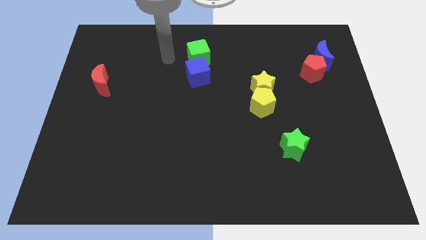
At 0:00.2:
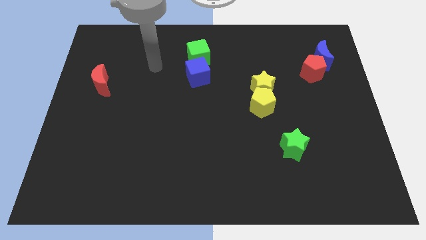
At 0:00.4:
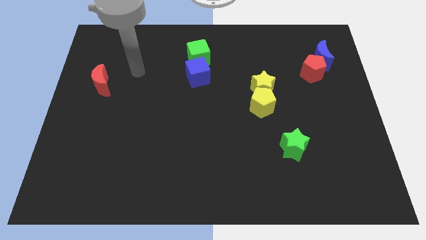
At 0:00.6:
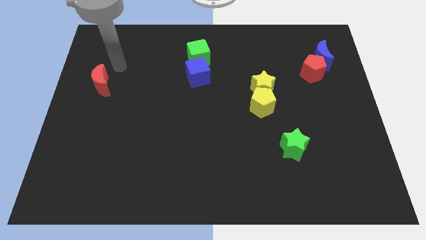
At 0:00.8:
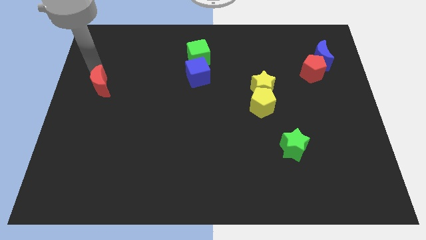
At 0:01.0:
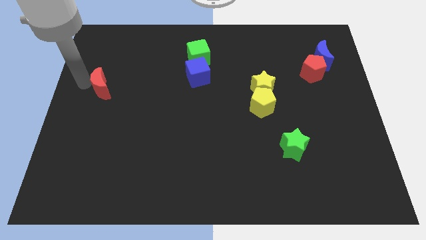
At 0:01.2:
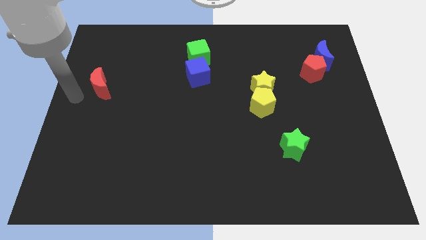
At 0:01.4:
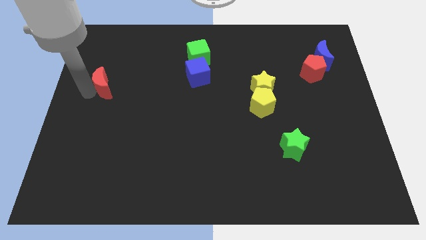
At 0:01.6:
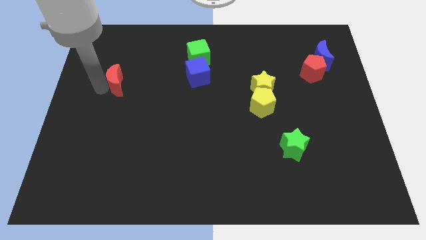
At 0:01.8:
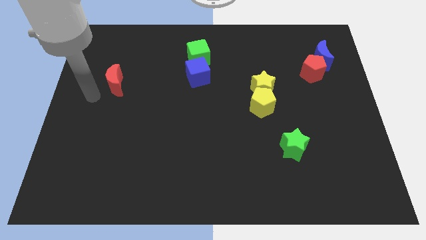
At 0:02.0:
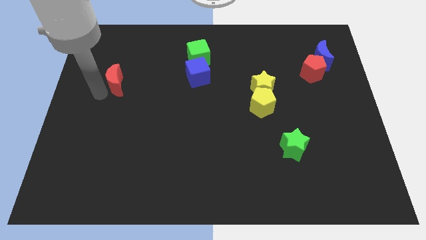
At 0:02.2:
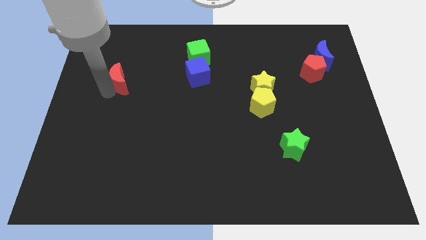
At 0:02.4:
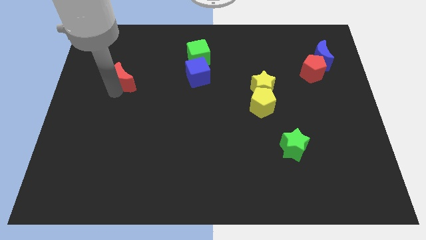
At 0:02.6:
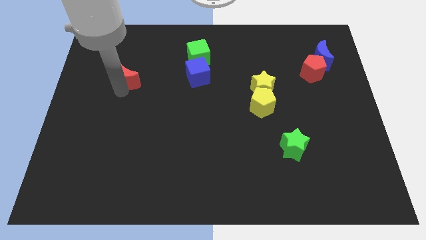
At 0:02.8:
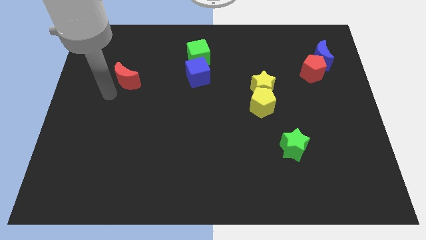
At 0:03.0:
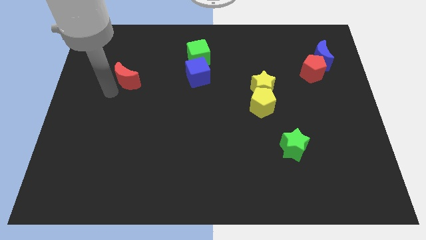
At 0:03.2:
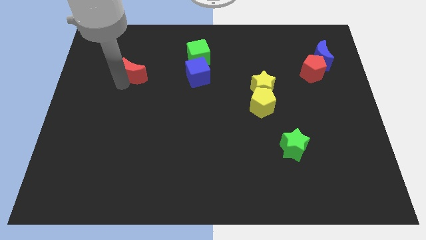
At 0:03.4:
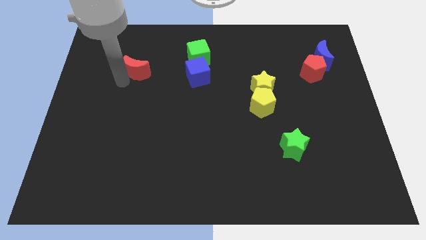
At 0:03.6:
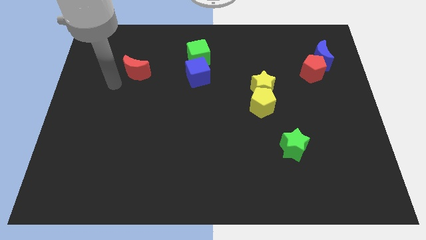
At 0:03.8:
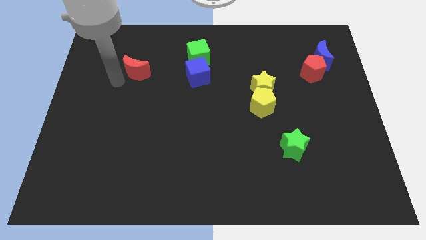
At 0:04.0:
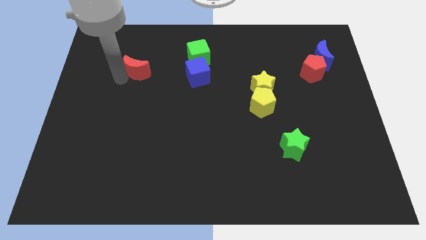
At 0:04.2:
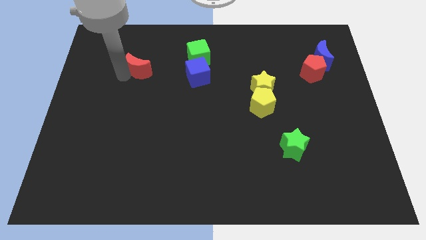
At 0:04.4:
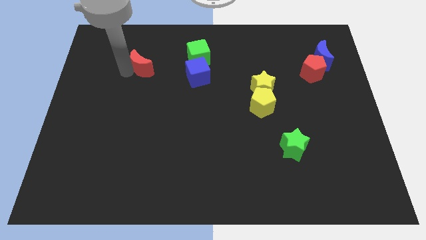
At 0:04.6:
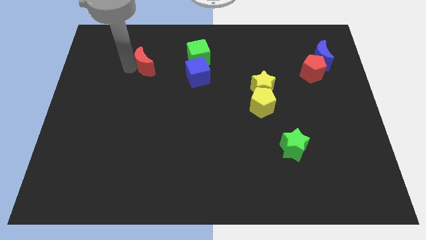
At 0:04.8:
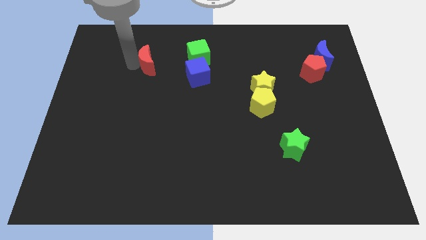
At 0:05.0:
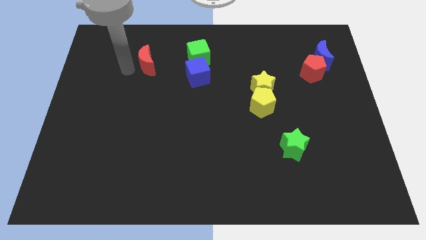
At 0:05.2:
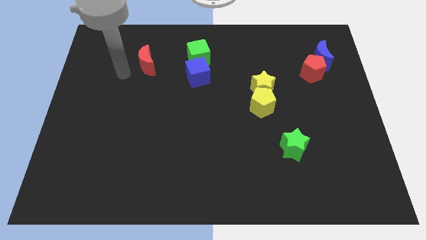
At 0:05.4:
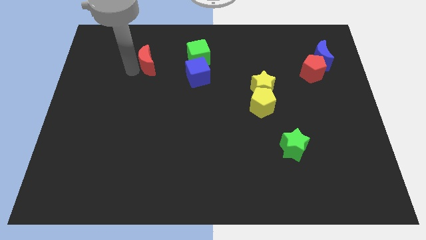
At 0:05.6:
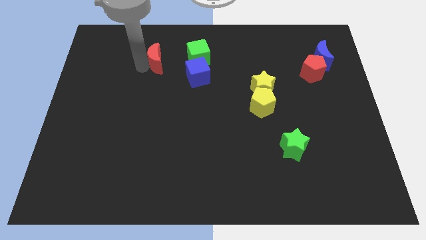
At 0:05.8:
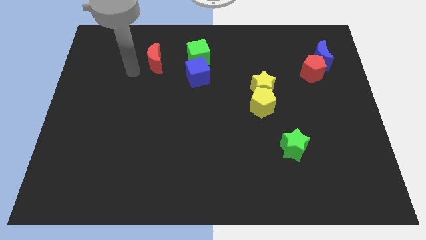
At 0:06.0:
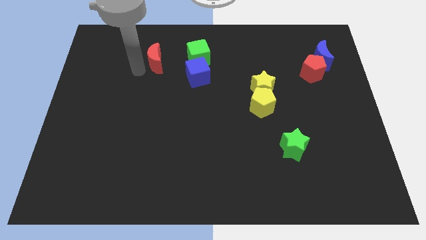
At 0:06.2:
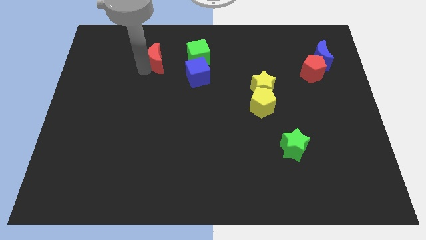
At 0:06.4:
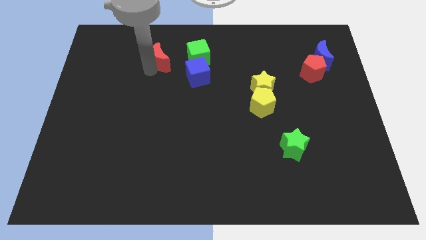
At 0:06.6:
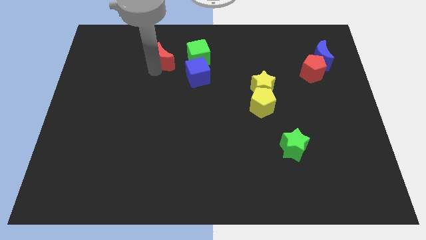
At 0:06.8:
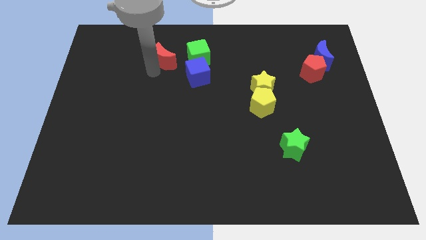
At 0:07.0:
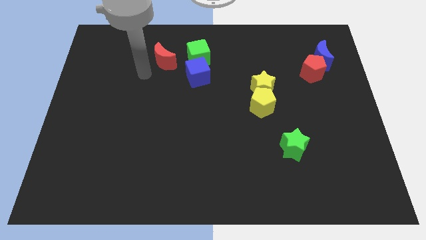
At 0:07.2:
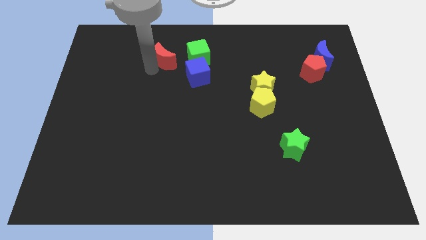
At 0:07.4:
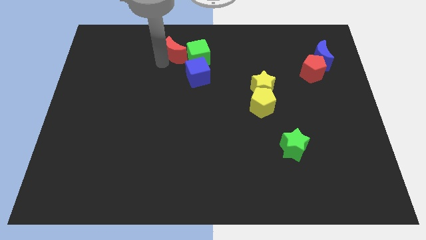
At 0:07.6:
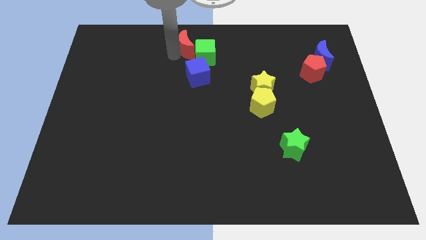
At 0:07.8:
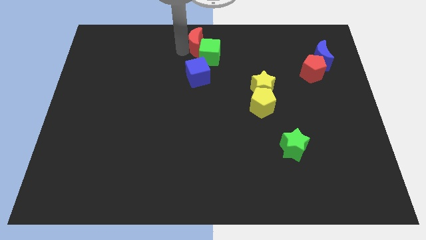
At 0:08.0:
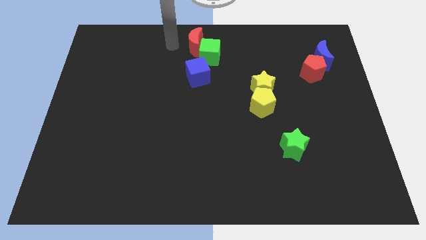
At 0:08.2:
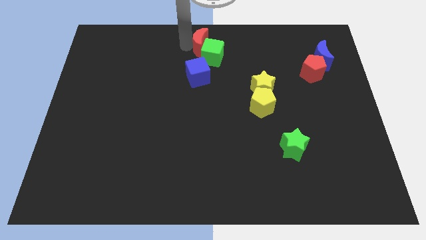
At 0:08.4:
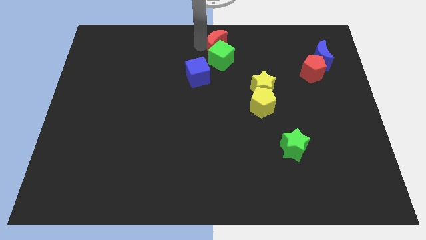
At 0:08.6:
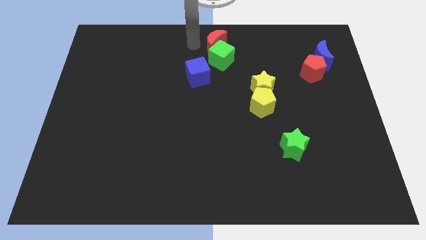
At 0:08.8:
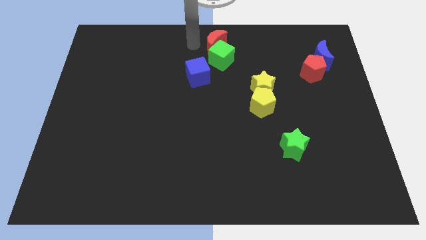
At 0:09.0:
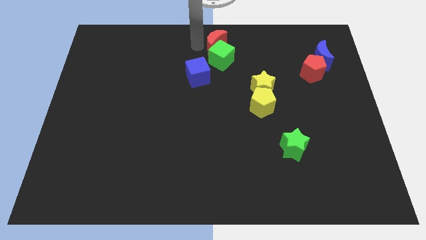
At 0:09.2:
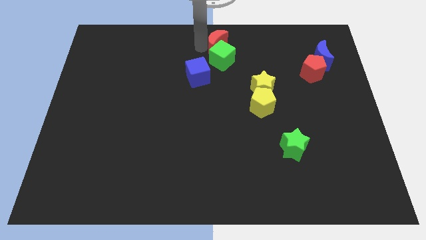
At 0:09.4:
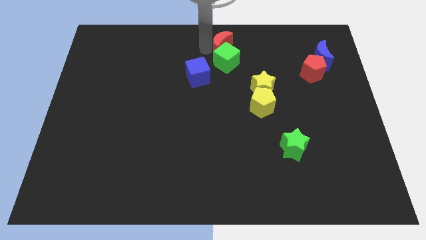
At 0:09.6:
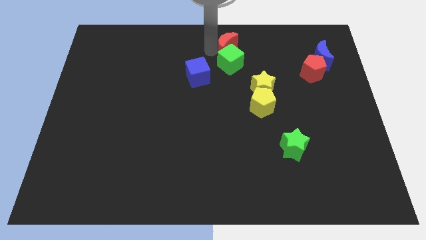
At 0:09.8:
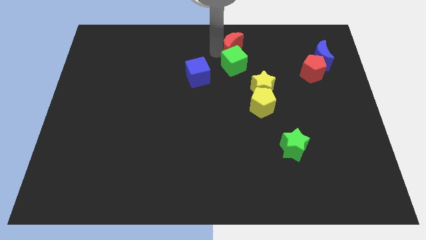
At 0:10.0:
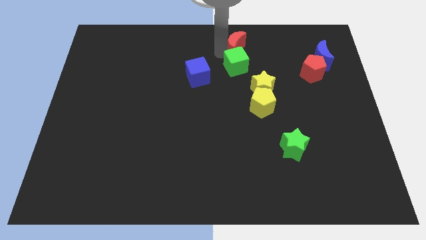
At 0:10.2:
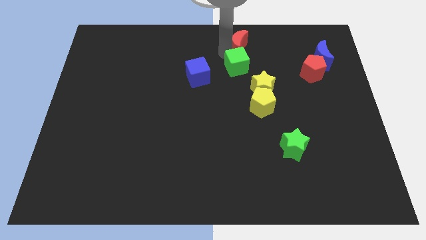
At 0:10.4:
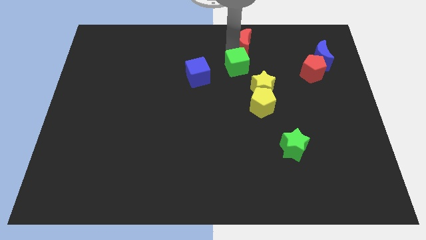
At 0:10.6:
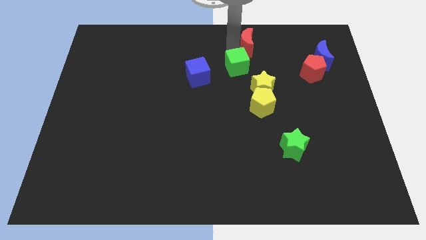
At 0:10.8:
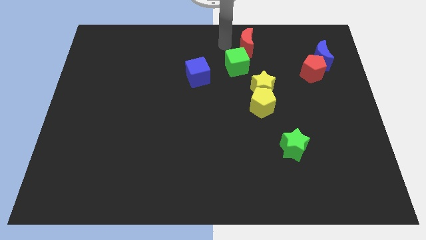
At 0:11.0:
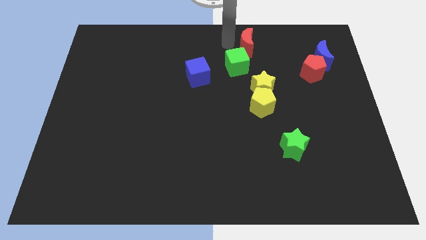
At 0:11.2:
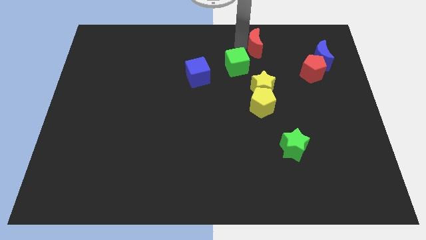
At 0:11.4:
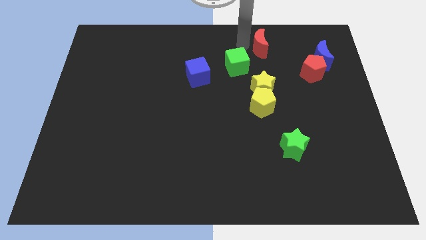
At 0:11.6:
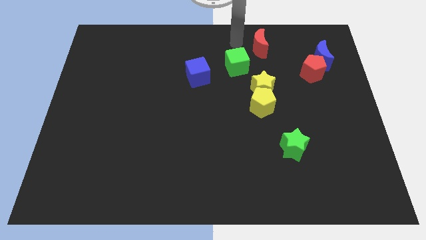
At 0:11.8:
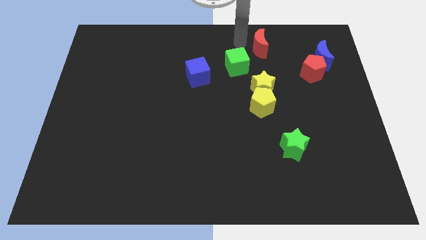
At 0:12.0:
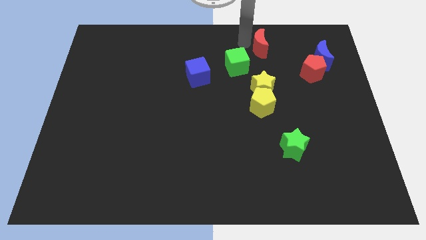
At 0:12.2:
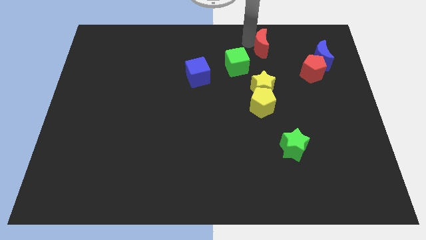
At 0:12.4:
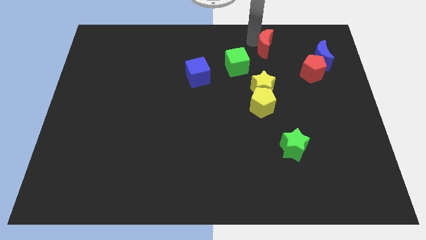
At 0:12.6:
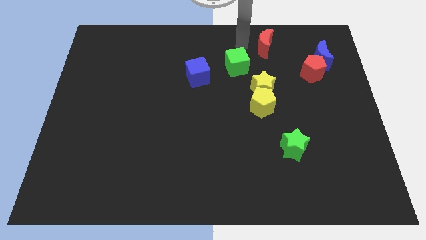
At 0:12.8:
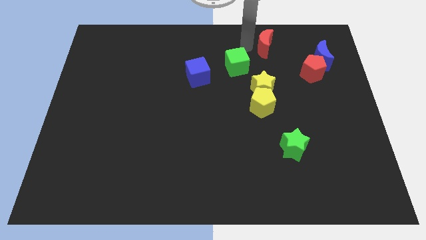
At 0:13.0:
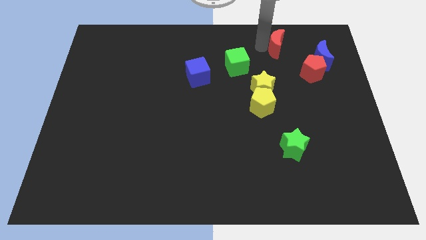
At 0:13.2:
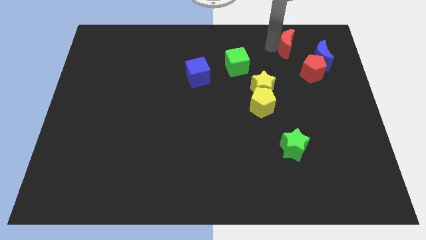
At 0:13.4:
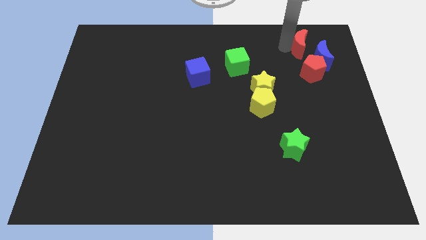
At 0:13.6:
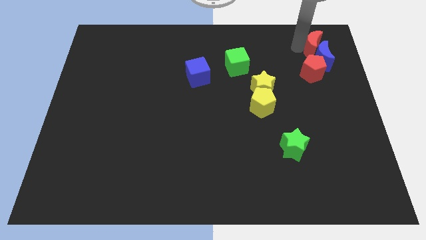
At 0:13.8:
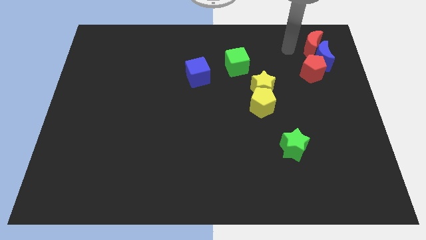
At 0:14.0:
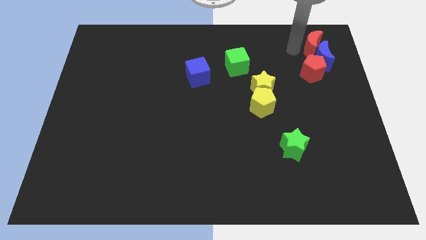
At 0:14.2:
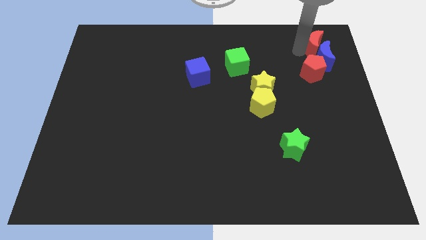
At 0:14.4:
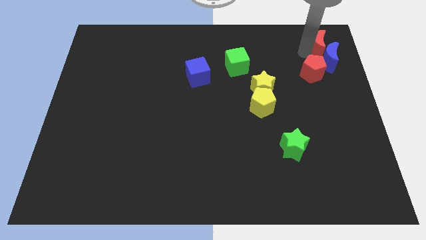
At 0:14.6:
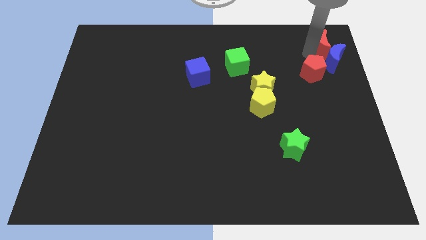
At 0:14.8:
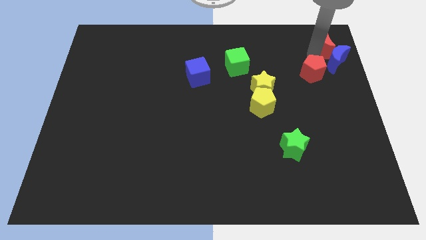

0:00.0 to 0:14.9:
put the red moon to the top right

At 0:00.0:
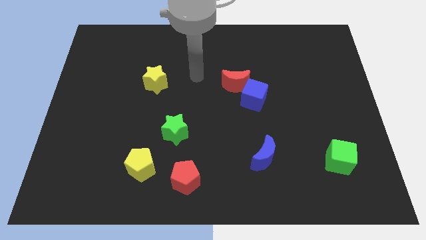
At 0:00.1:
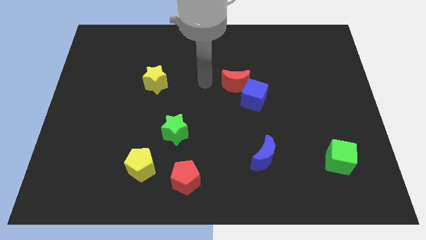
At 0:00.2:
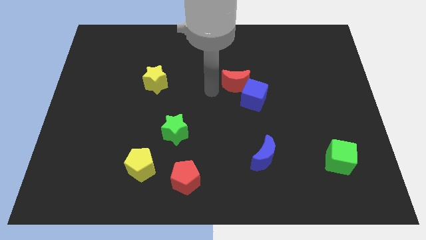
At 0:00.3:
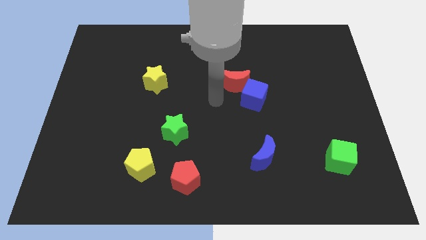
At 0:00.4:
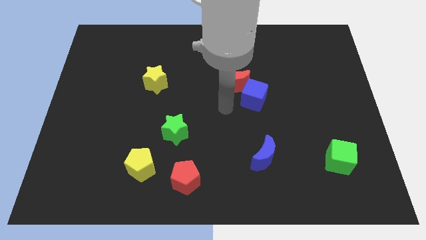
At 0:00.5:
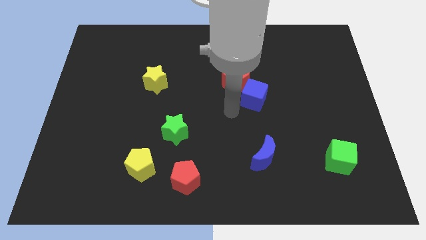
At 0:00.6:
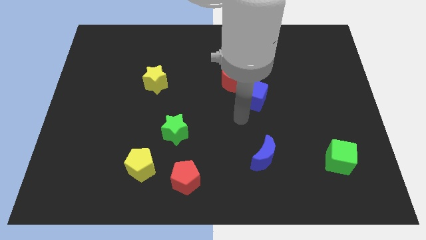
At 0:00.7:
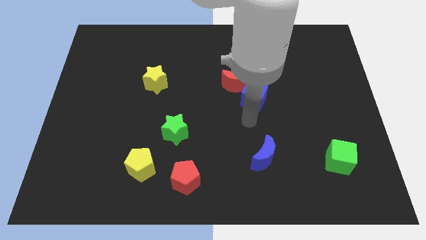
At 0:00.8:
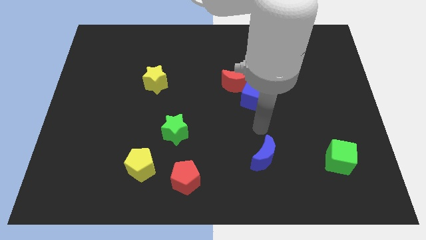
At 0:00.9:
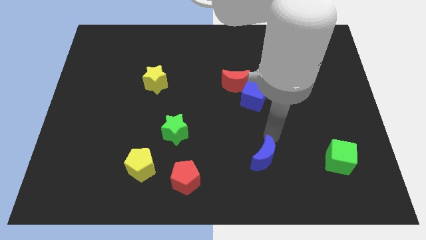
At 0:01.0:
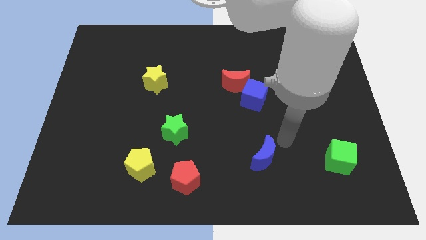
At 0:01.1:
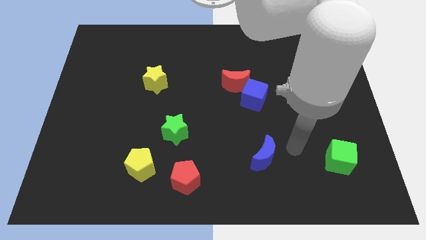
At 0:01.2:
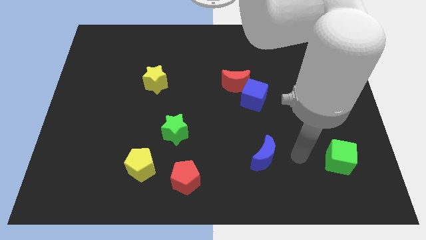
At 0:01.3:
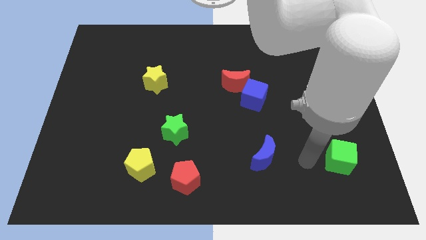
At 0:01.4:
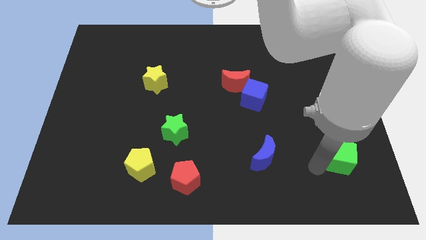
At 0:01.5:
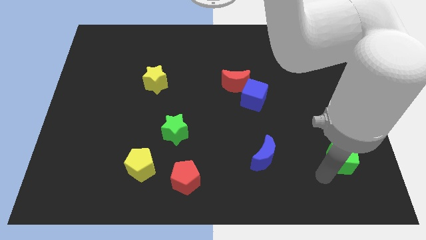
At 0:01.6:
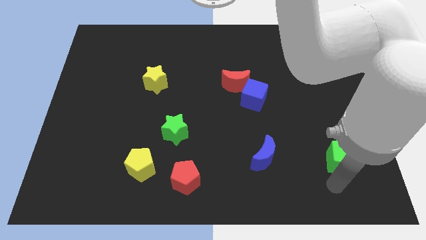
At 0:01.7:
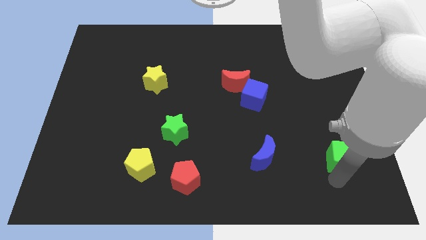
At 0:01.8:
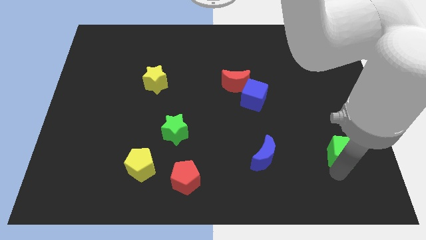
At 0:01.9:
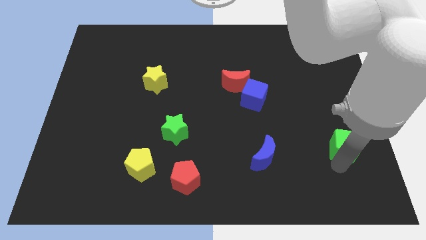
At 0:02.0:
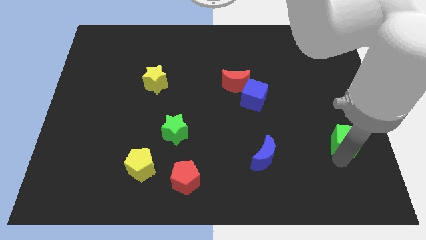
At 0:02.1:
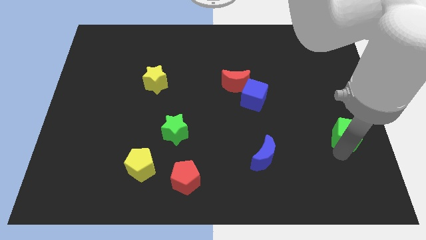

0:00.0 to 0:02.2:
move the green cube to the right side
